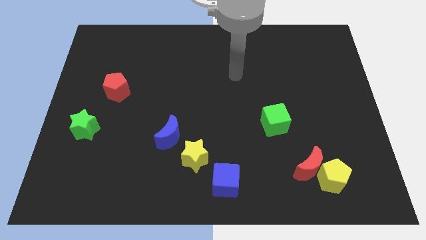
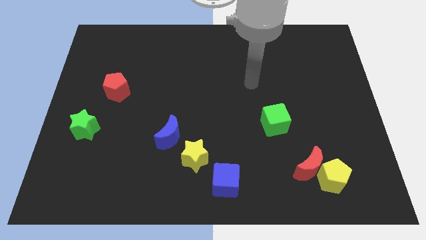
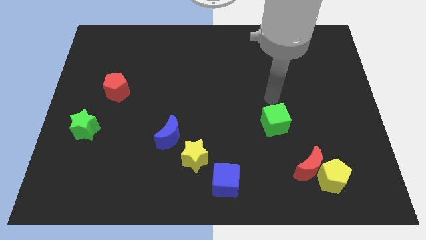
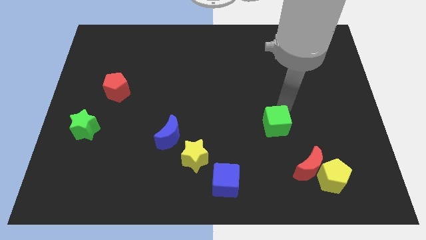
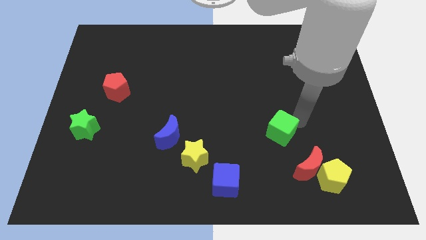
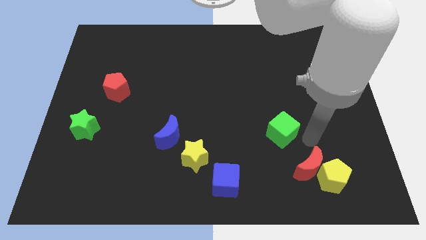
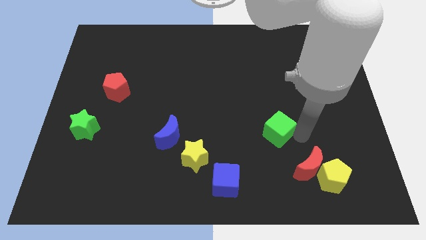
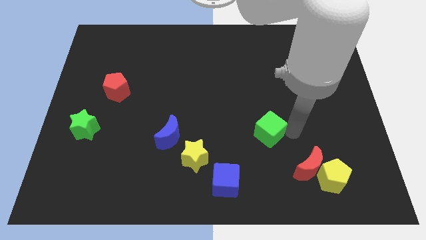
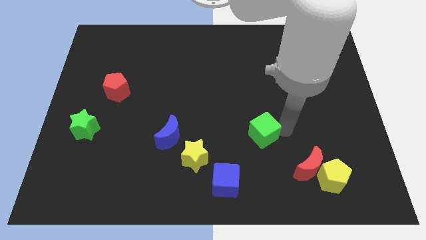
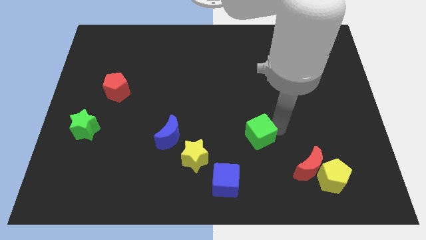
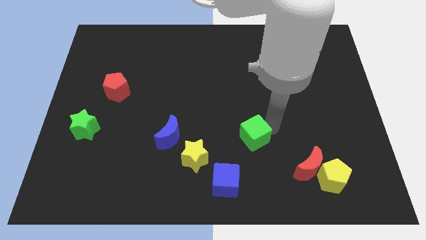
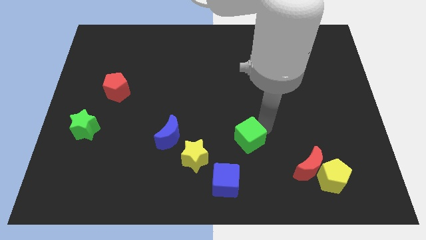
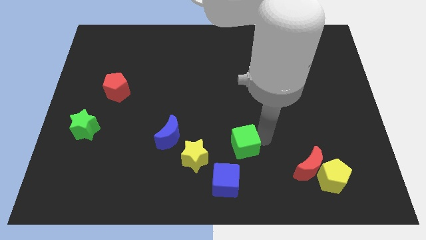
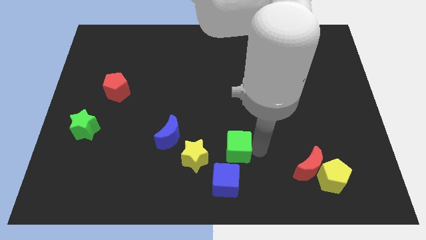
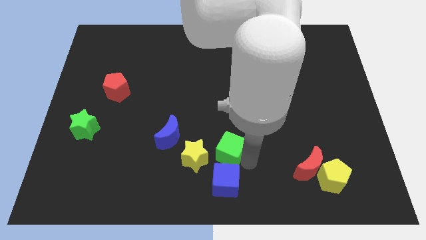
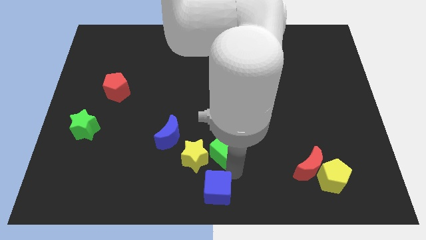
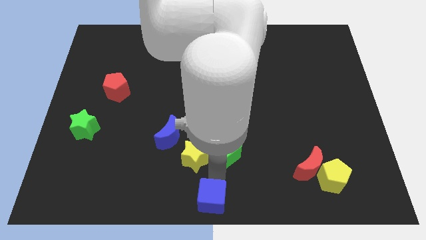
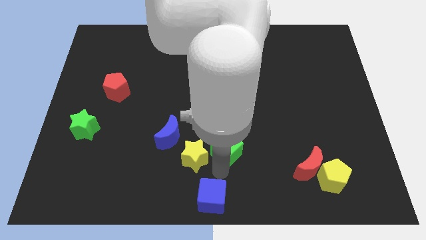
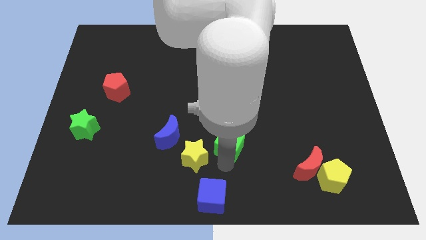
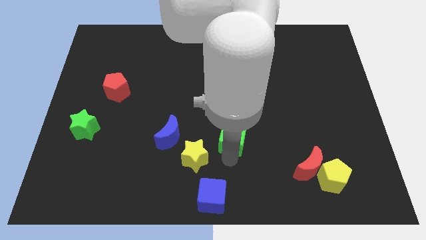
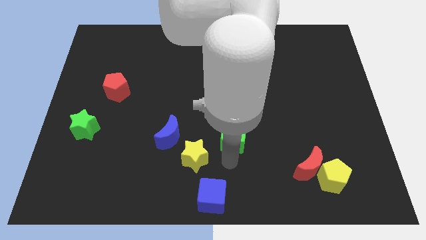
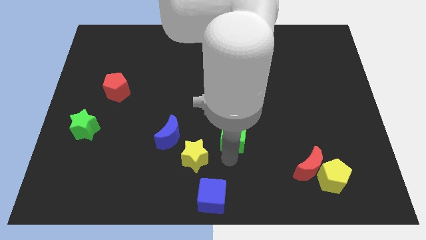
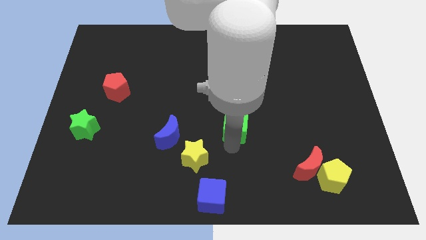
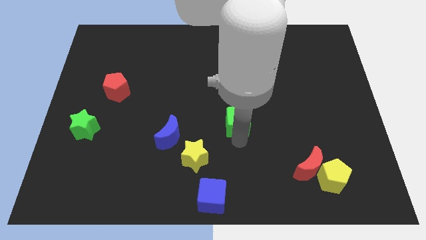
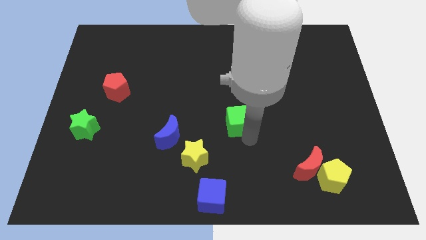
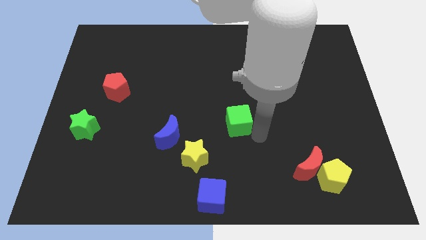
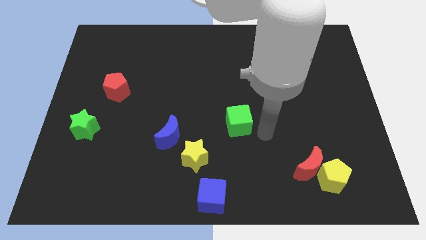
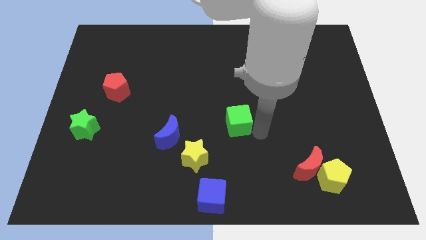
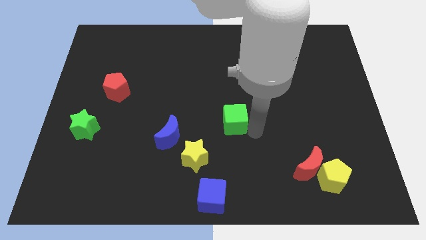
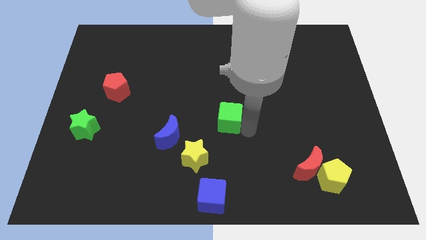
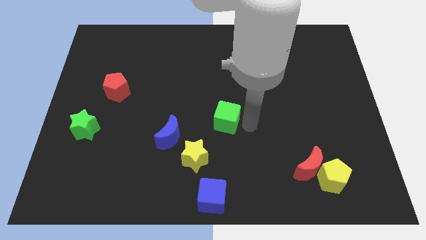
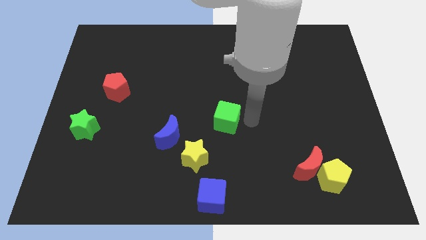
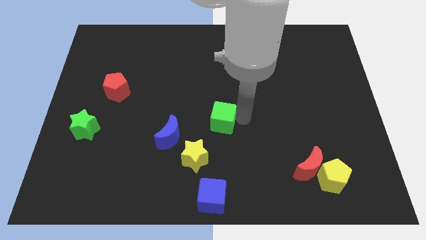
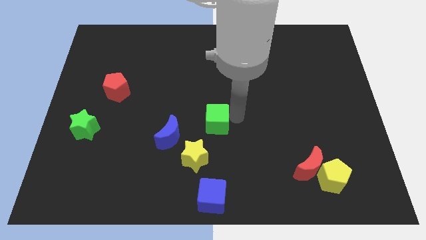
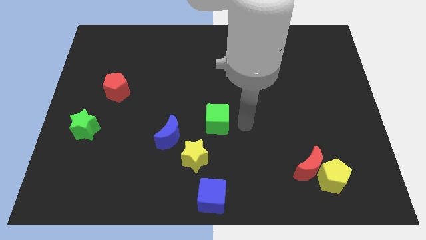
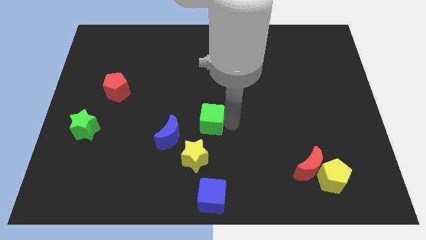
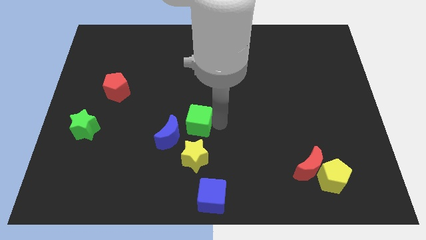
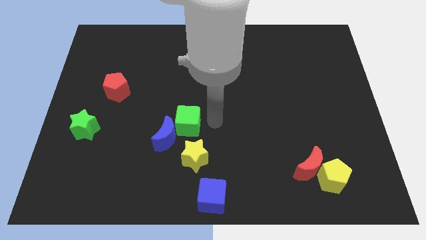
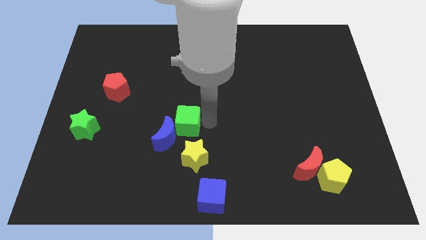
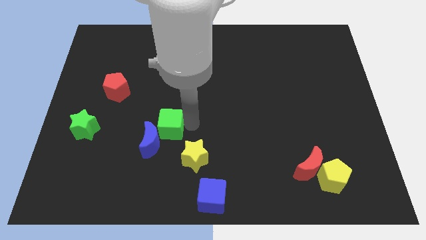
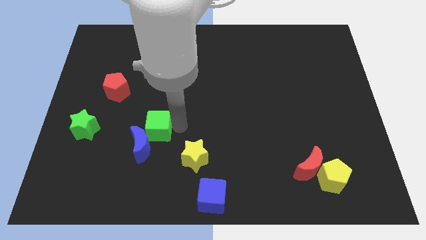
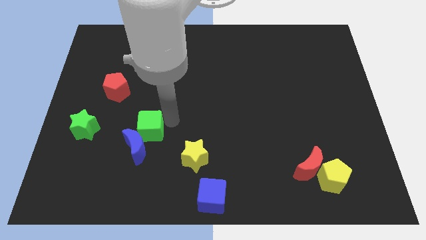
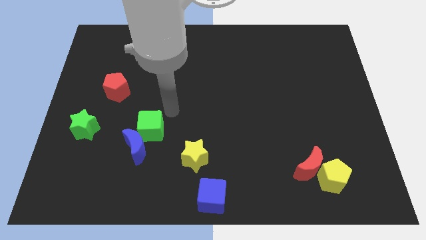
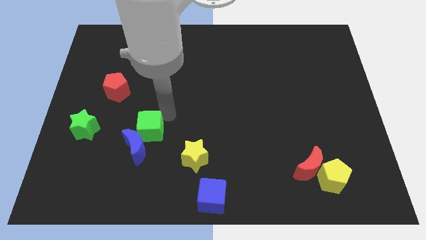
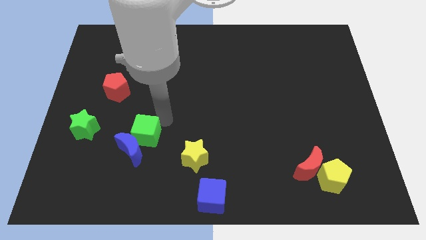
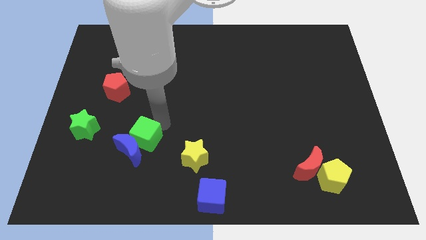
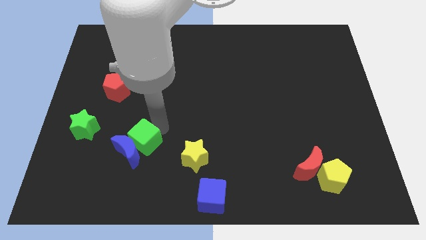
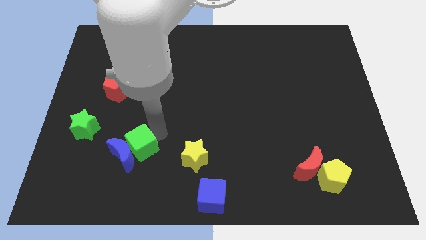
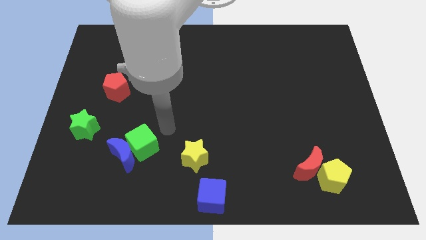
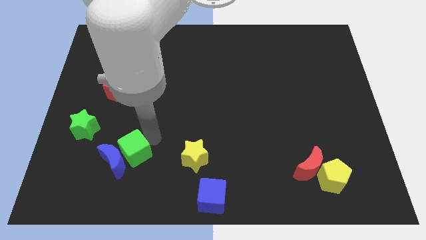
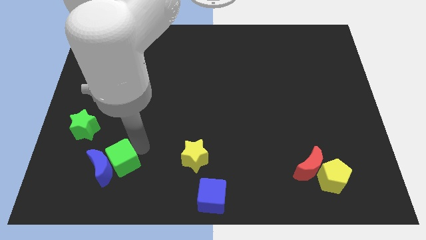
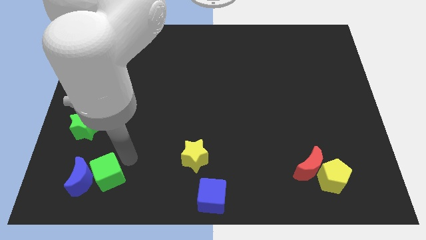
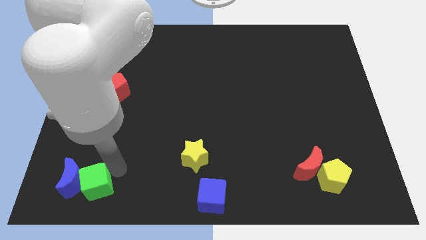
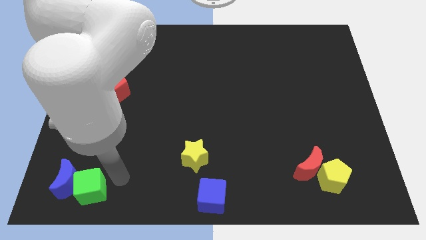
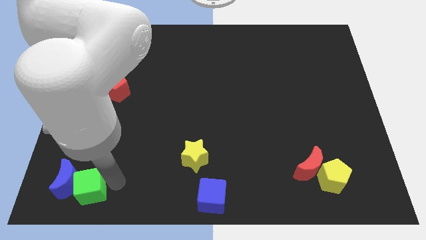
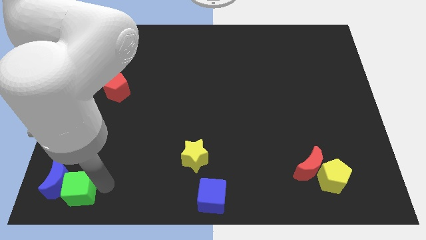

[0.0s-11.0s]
put the green cube to the bottom left of the board

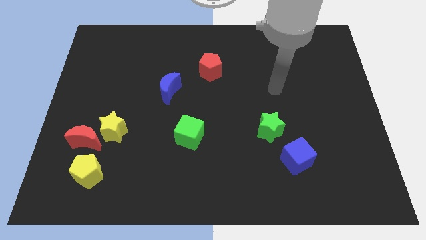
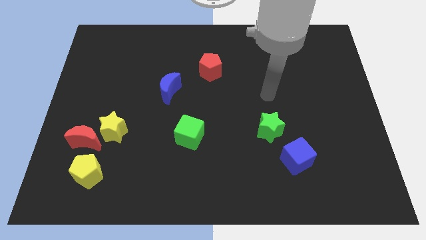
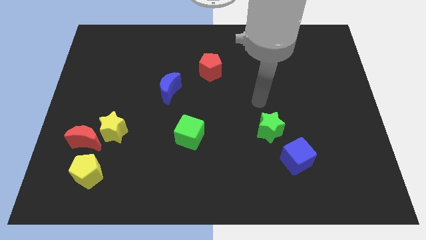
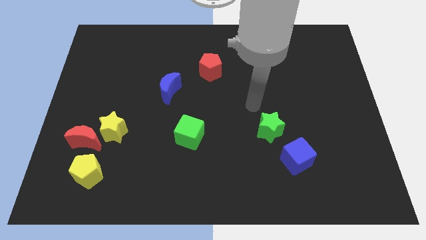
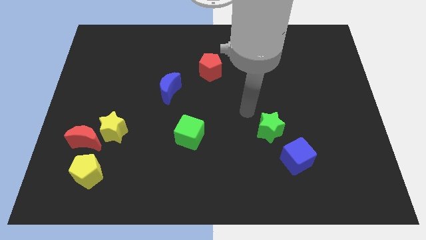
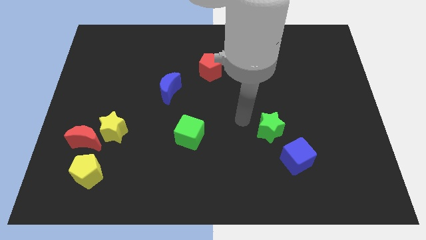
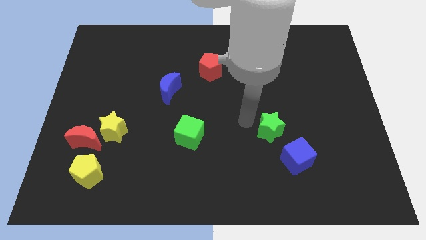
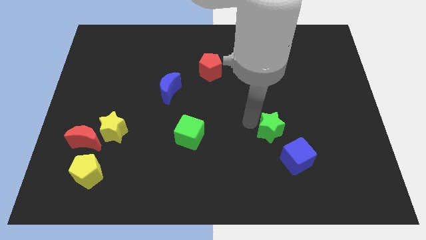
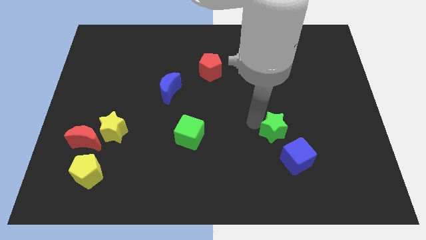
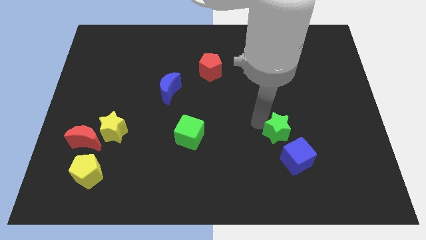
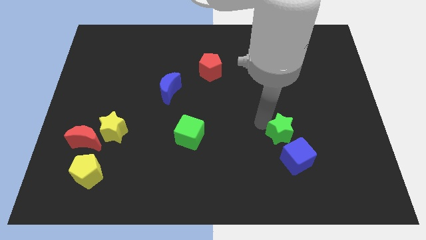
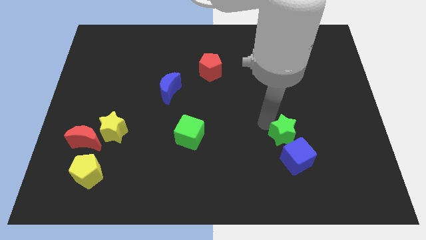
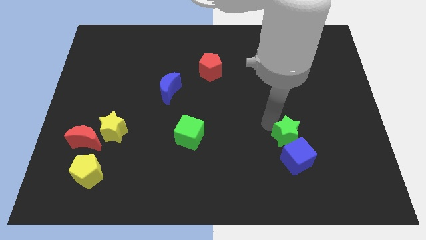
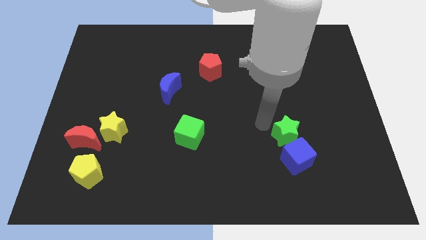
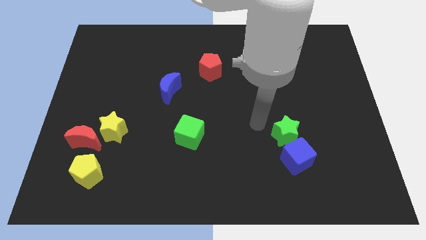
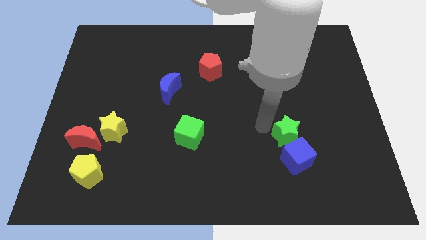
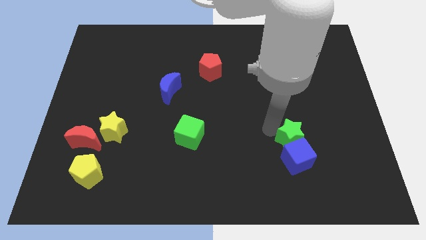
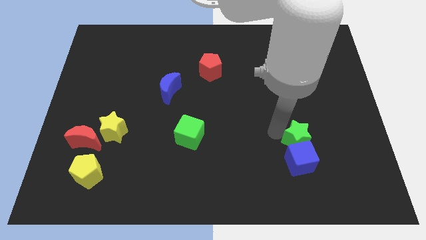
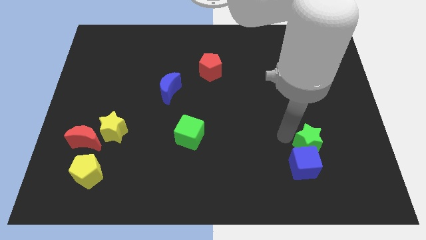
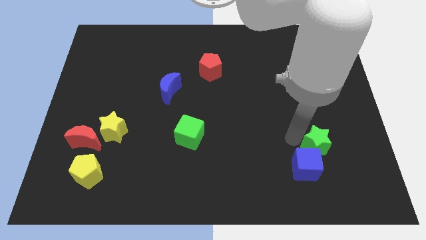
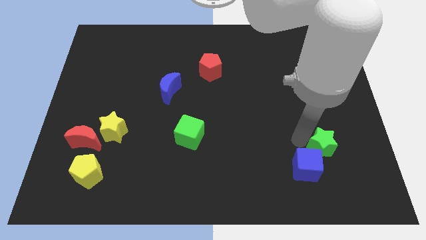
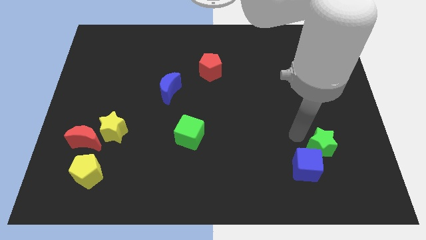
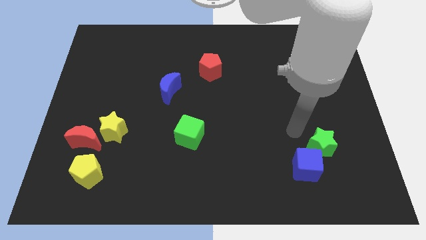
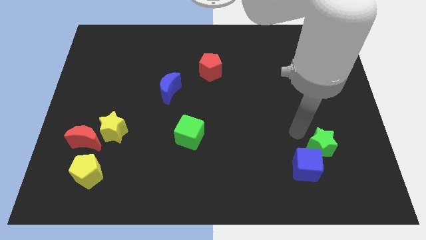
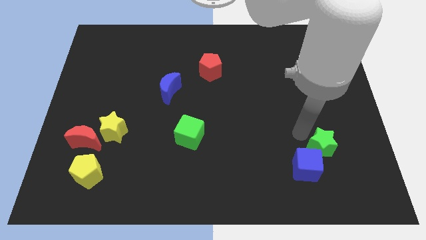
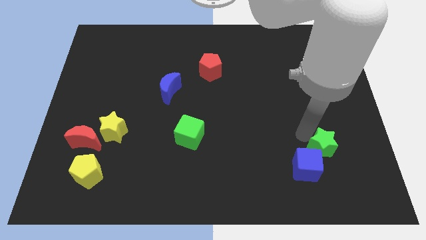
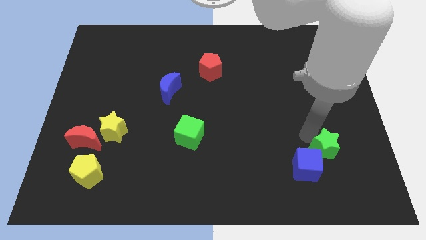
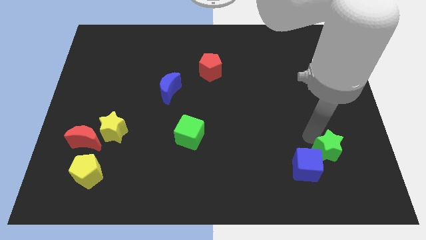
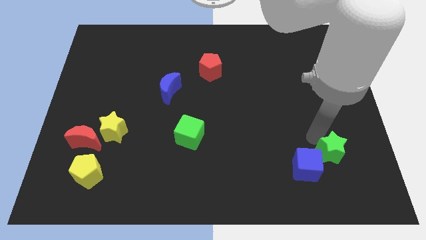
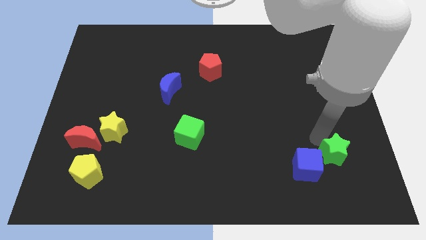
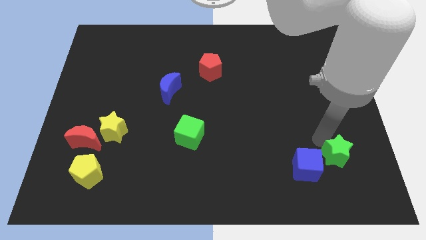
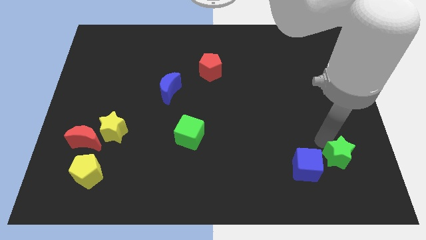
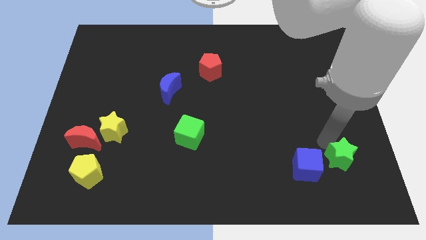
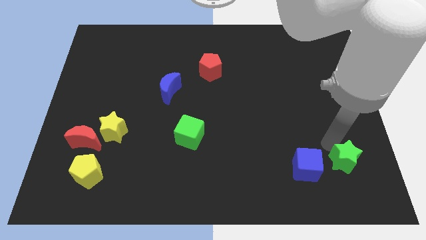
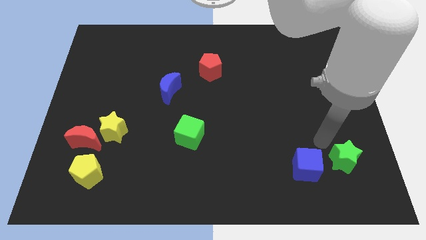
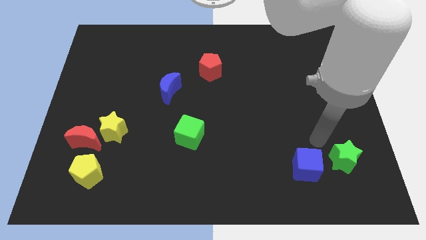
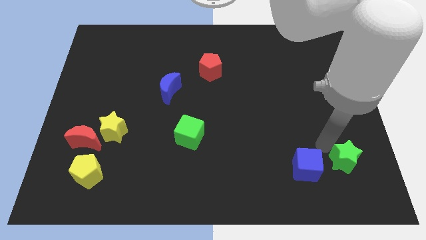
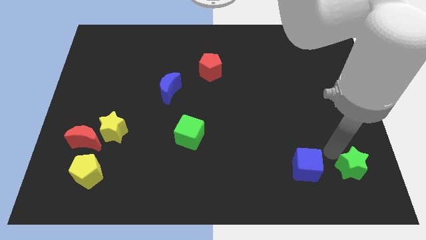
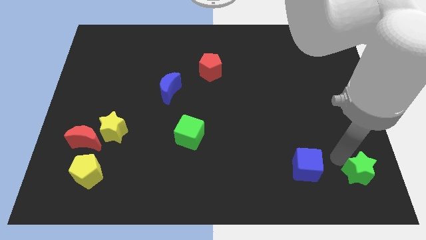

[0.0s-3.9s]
move the green star to the bottom right
